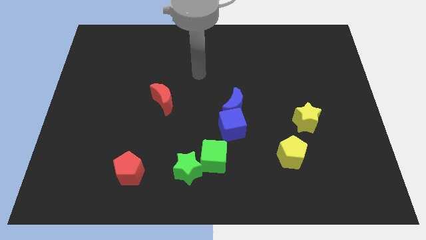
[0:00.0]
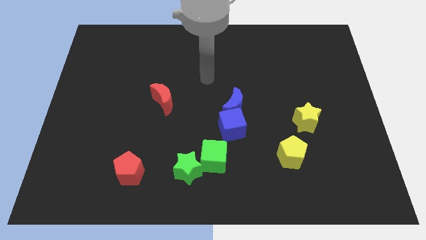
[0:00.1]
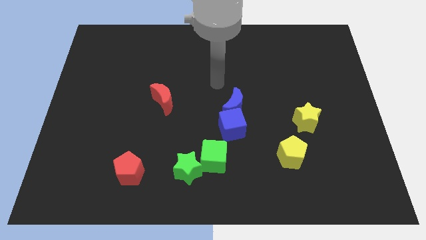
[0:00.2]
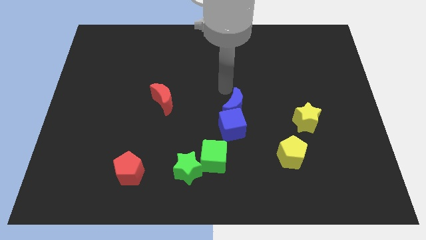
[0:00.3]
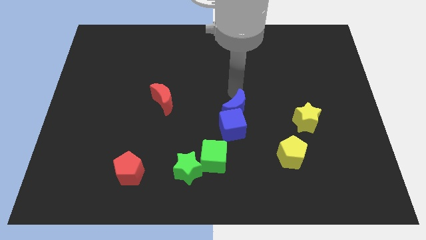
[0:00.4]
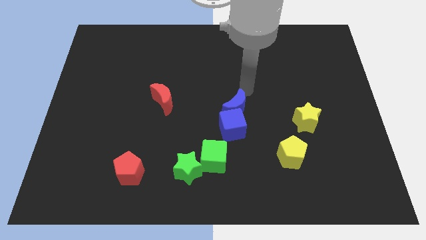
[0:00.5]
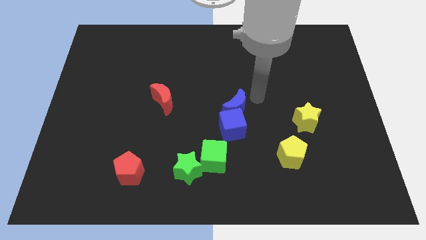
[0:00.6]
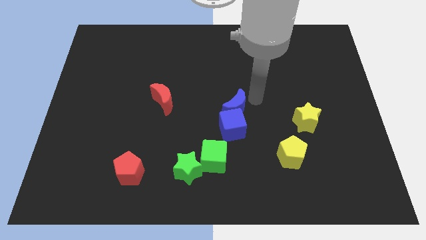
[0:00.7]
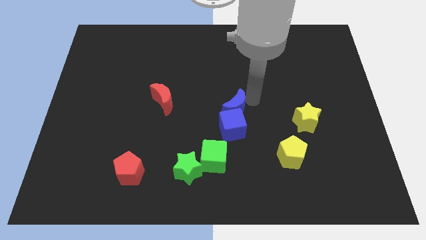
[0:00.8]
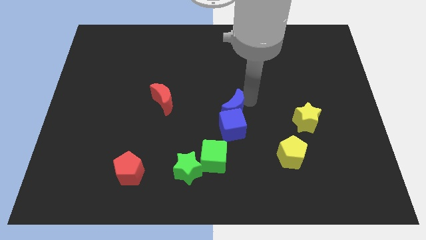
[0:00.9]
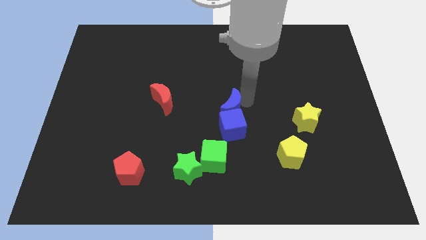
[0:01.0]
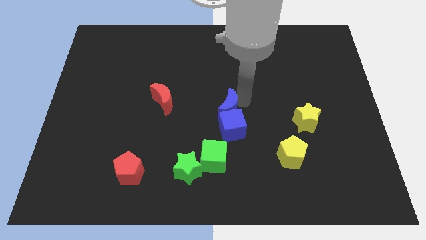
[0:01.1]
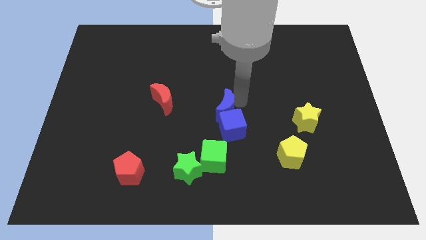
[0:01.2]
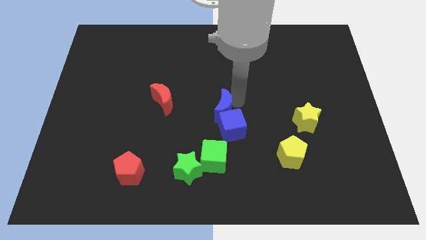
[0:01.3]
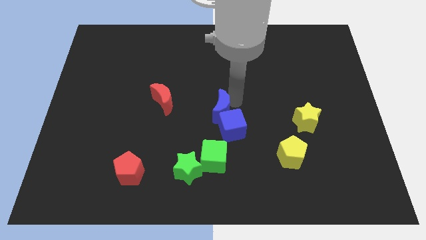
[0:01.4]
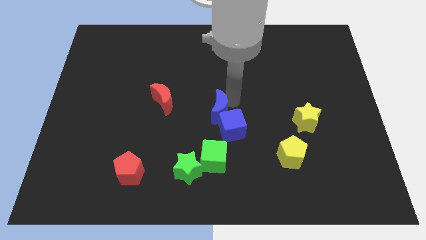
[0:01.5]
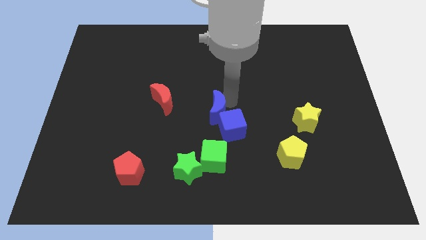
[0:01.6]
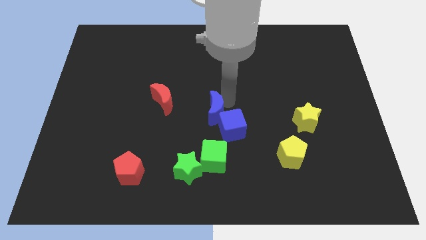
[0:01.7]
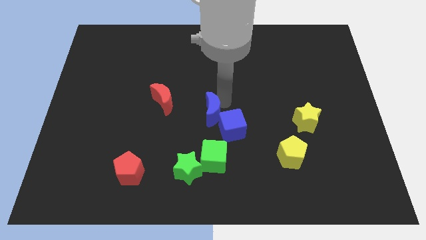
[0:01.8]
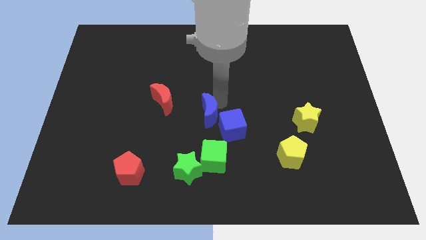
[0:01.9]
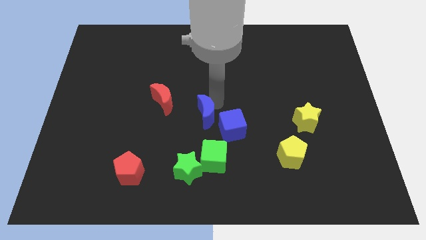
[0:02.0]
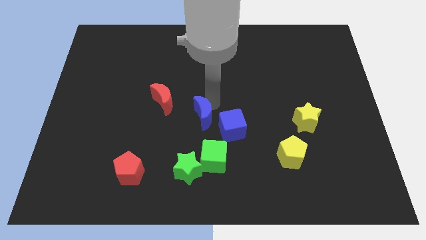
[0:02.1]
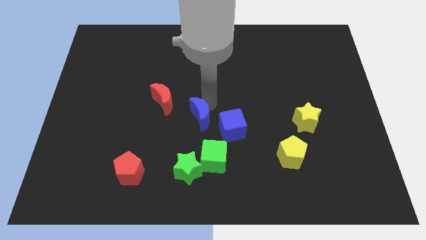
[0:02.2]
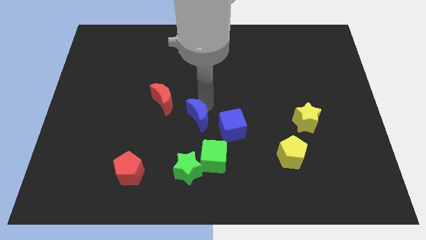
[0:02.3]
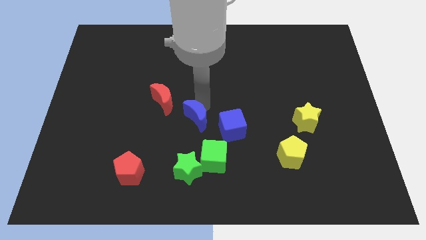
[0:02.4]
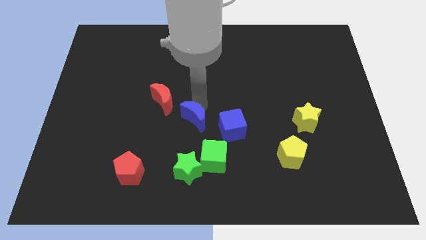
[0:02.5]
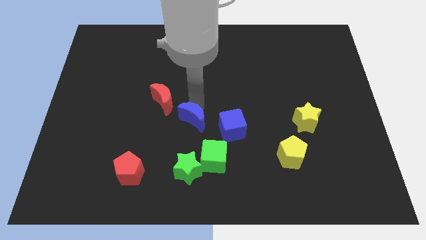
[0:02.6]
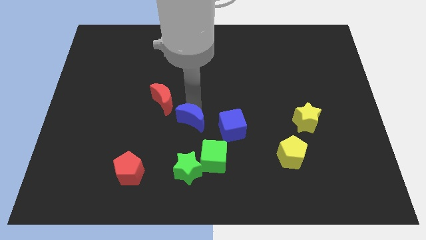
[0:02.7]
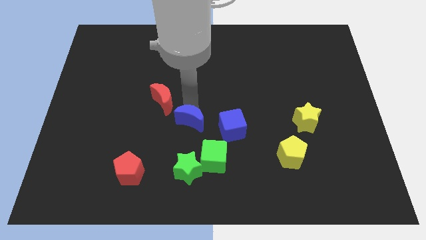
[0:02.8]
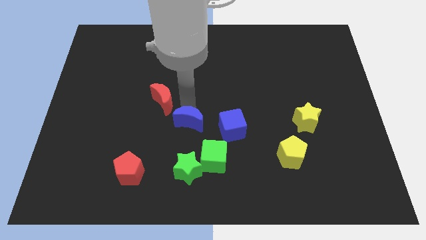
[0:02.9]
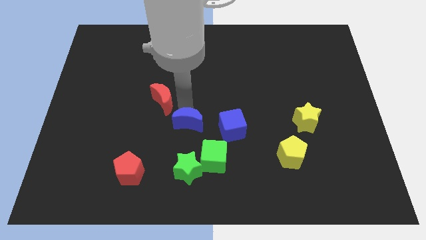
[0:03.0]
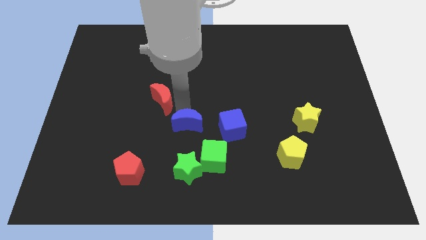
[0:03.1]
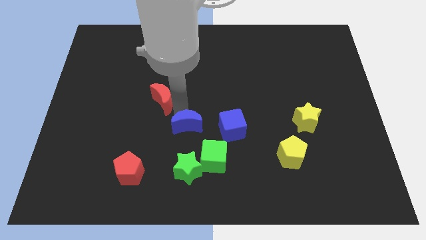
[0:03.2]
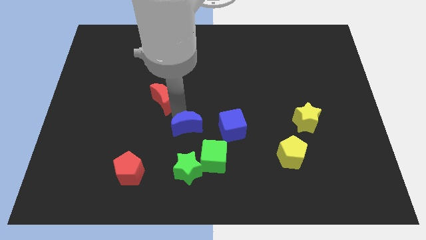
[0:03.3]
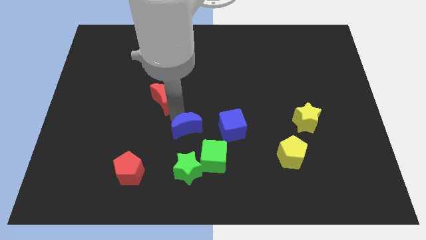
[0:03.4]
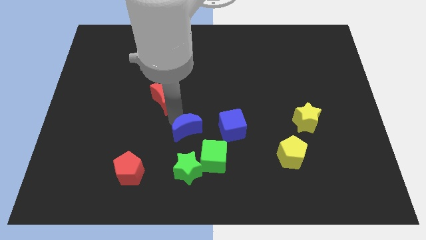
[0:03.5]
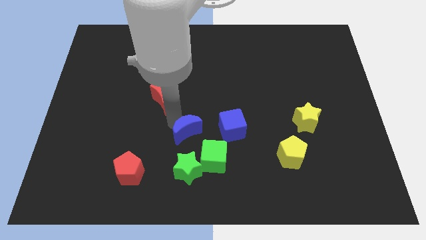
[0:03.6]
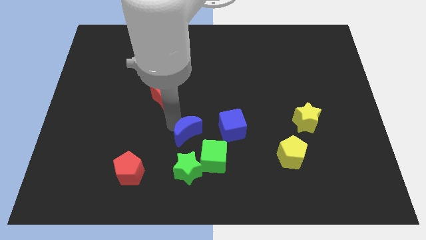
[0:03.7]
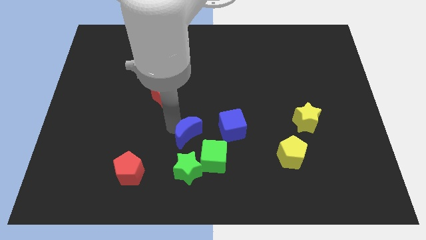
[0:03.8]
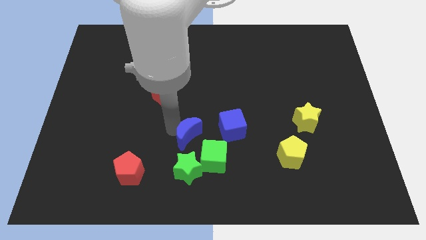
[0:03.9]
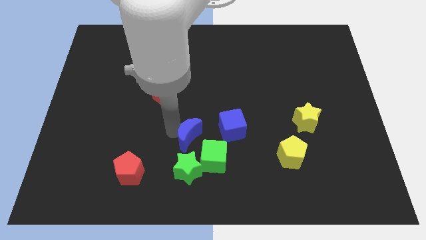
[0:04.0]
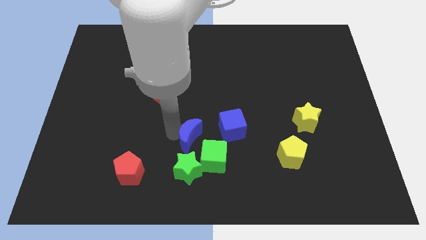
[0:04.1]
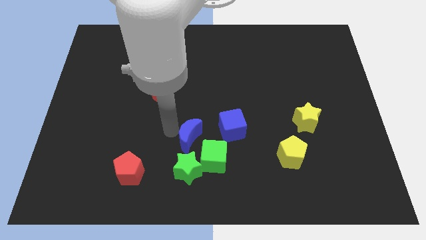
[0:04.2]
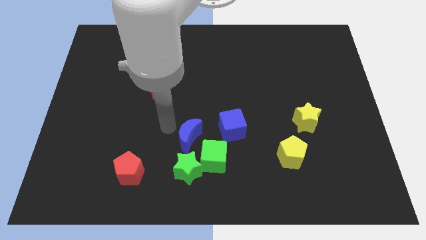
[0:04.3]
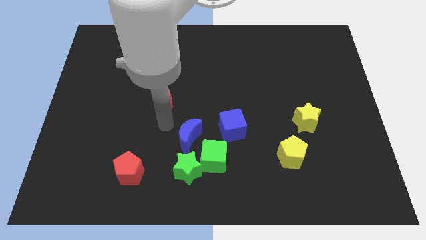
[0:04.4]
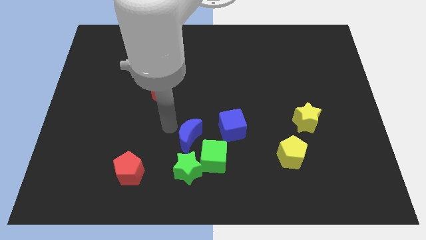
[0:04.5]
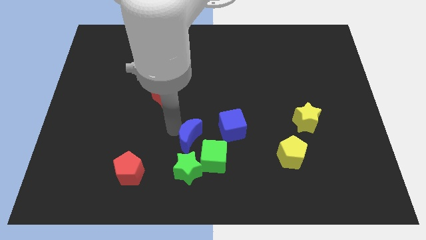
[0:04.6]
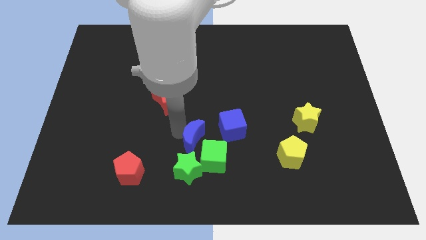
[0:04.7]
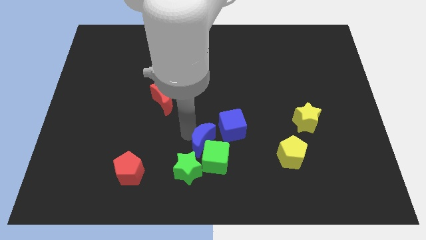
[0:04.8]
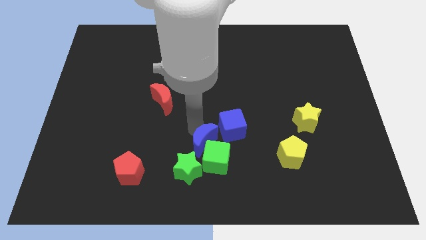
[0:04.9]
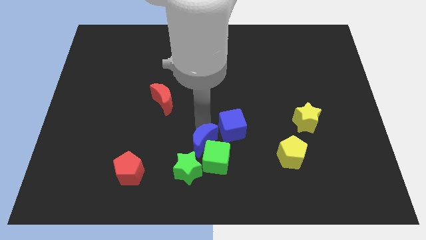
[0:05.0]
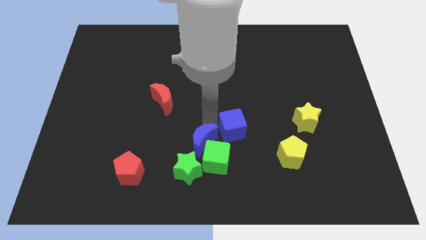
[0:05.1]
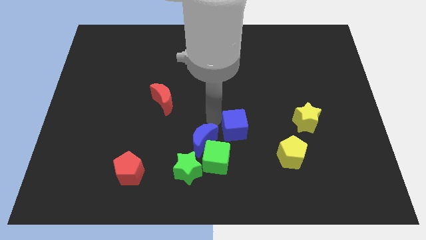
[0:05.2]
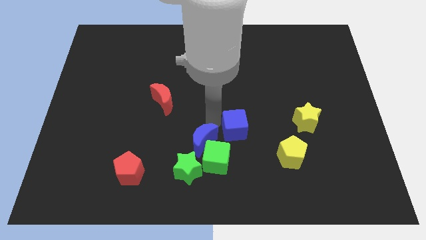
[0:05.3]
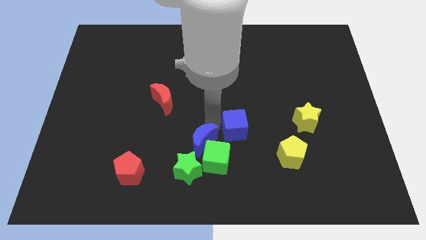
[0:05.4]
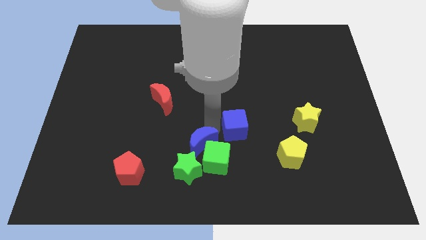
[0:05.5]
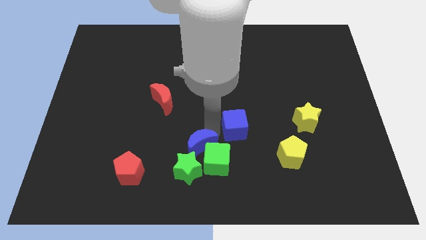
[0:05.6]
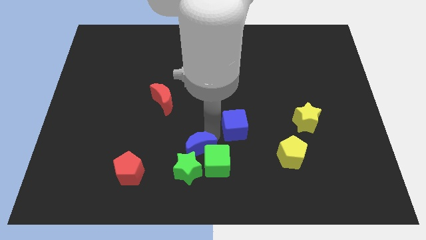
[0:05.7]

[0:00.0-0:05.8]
slide the blue moon close to the green star
